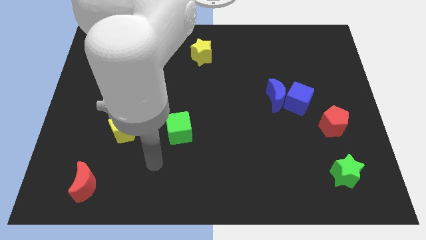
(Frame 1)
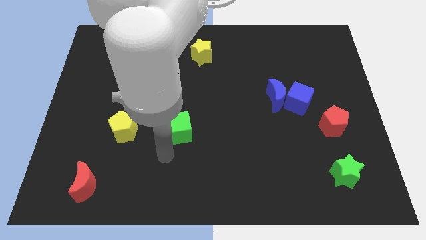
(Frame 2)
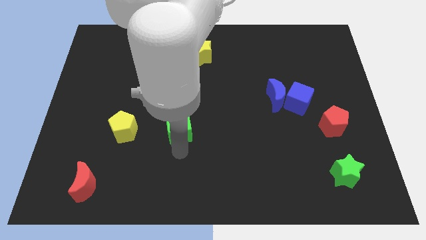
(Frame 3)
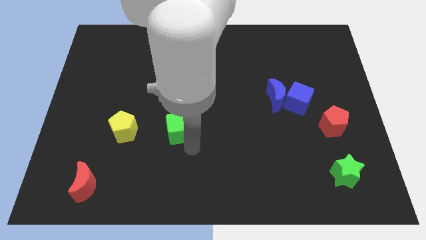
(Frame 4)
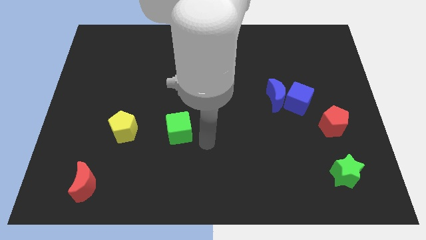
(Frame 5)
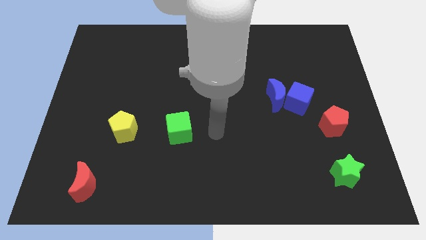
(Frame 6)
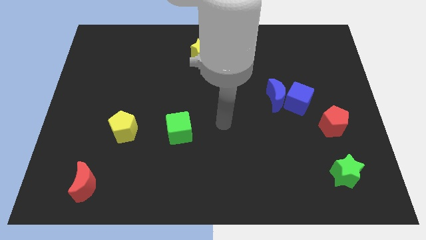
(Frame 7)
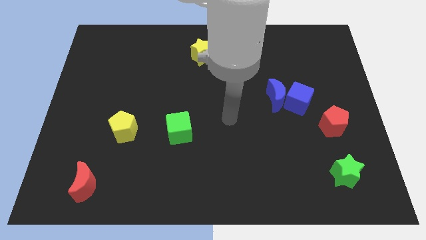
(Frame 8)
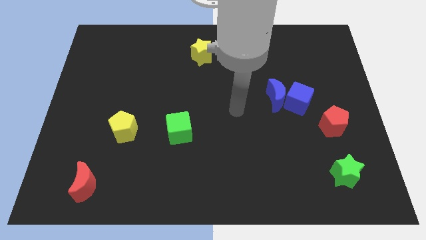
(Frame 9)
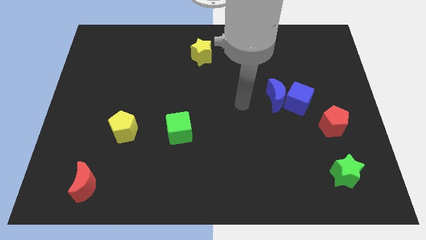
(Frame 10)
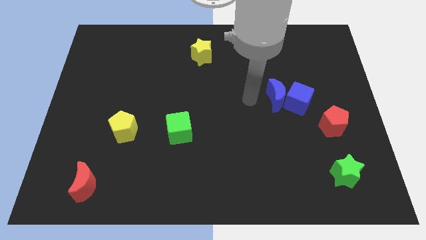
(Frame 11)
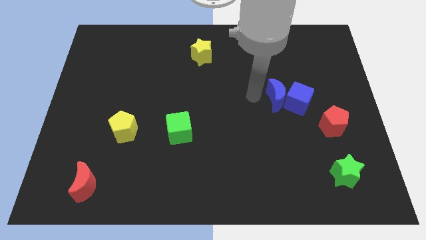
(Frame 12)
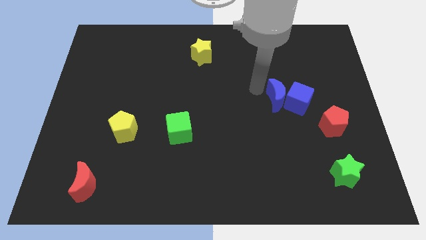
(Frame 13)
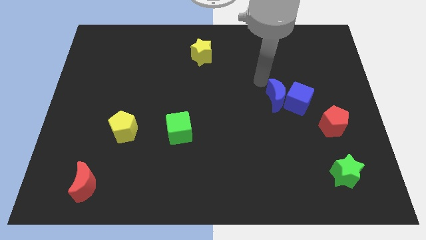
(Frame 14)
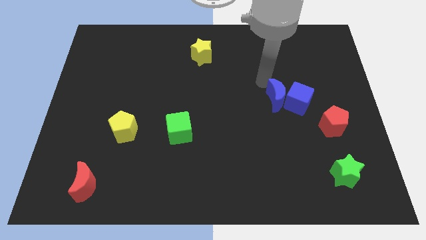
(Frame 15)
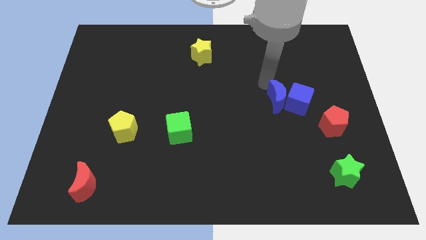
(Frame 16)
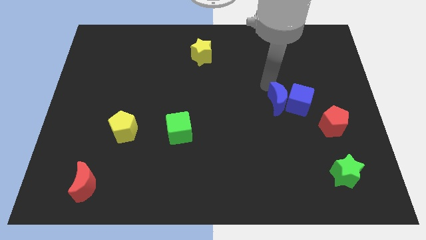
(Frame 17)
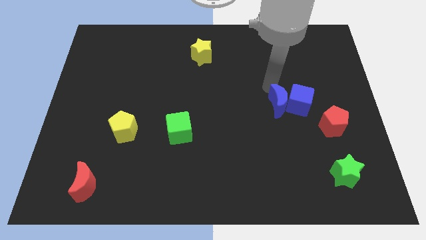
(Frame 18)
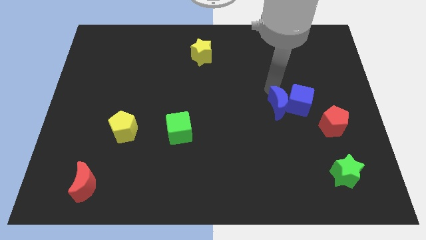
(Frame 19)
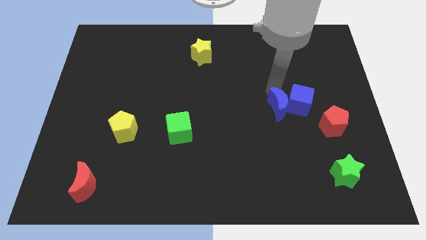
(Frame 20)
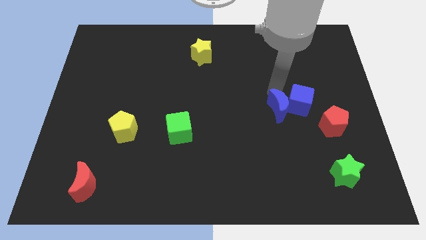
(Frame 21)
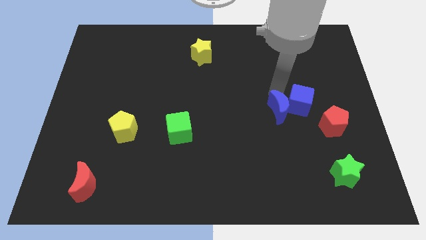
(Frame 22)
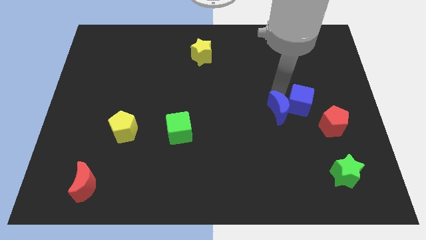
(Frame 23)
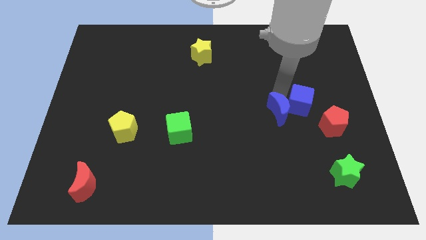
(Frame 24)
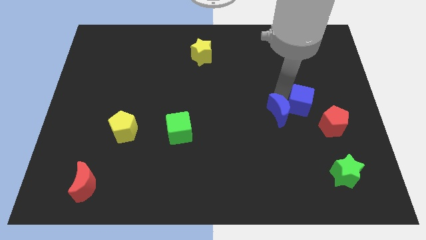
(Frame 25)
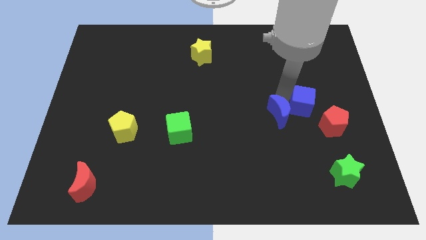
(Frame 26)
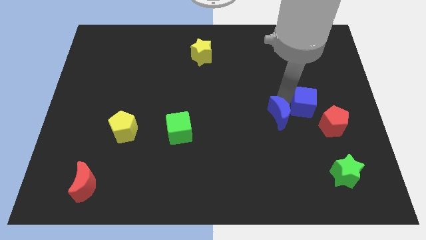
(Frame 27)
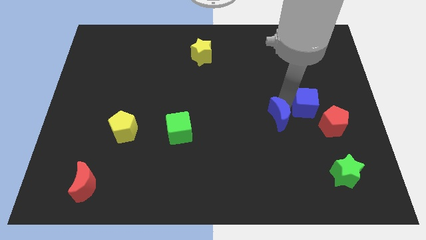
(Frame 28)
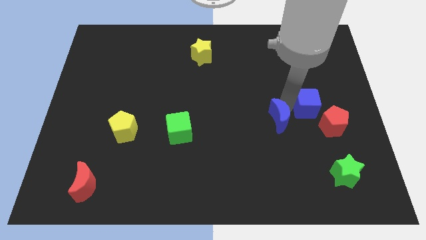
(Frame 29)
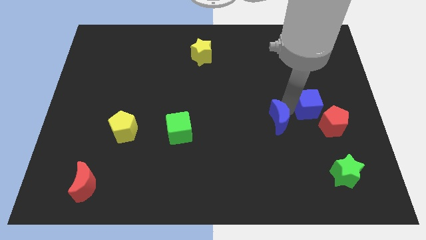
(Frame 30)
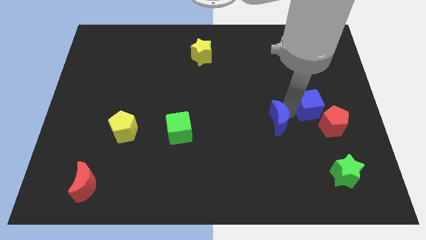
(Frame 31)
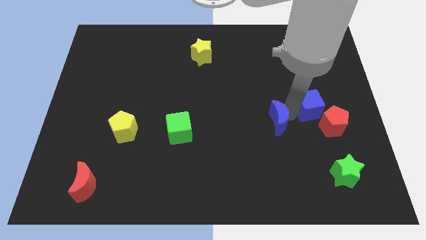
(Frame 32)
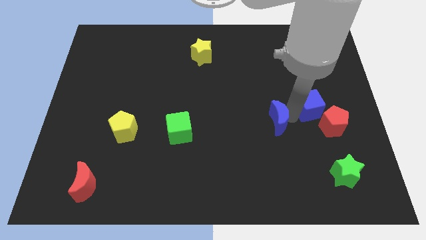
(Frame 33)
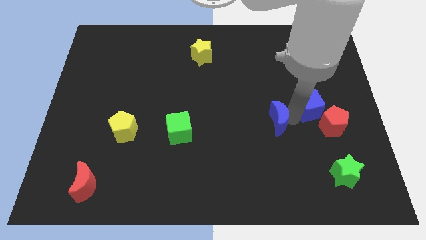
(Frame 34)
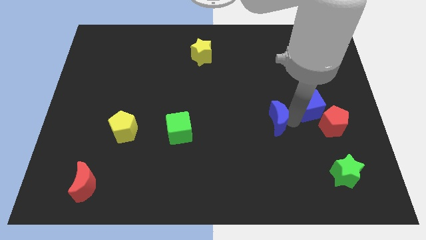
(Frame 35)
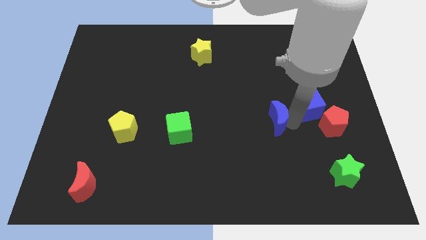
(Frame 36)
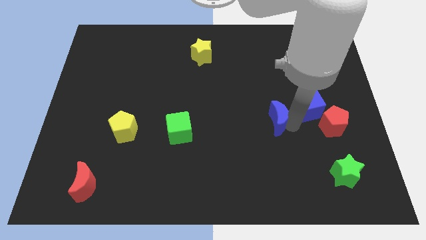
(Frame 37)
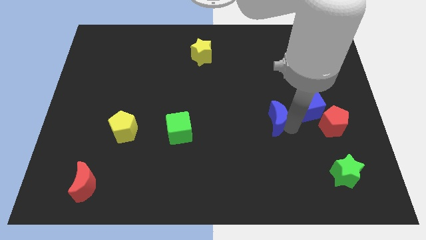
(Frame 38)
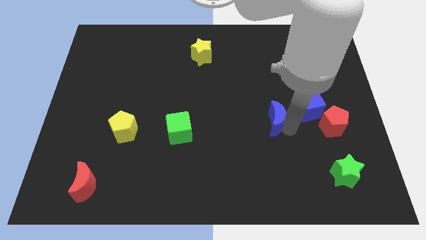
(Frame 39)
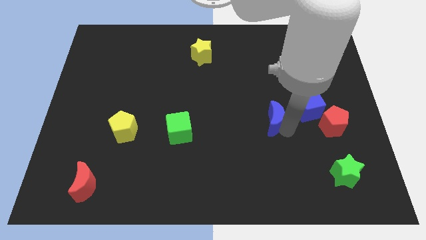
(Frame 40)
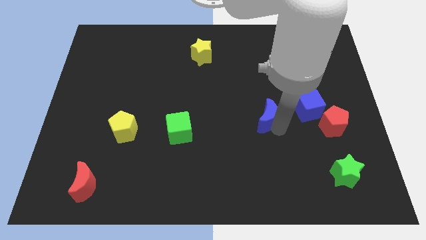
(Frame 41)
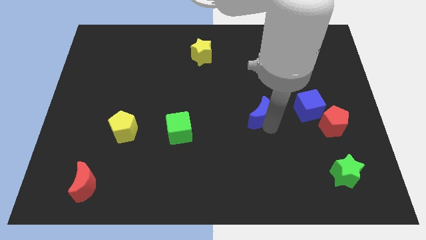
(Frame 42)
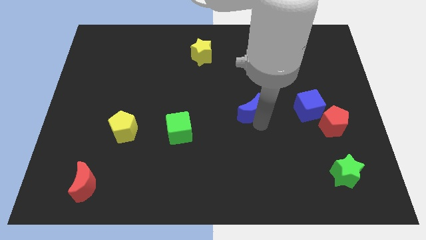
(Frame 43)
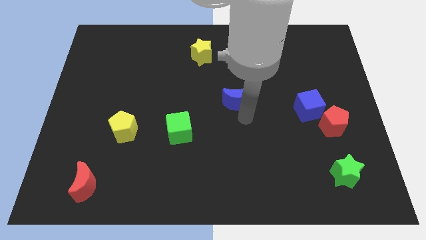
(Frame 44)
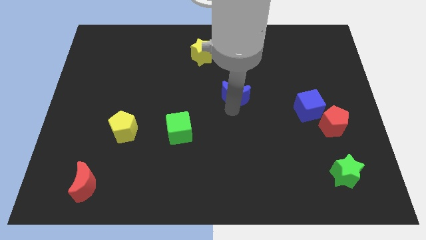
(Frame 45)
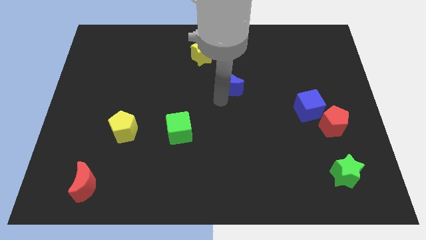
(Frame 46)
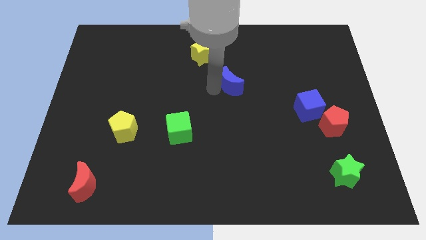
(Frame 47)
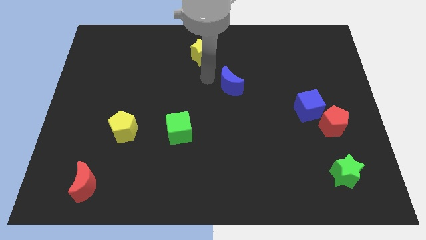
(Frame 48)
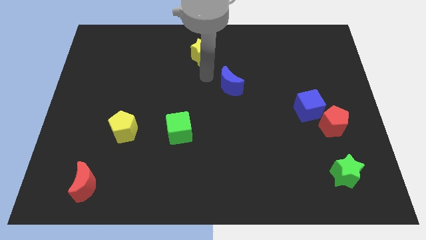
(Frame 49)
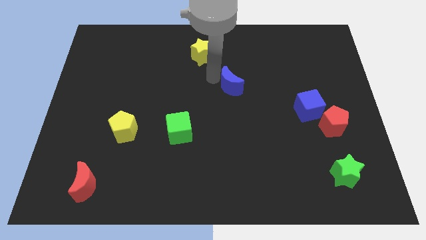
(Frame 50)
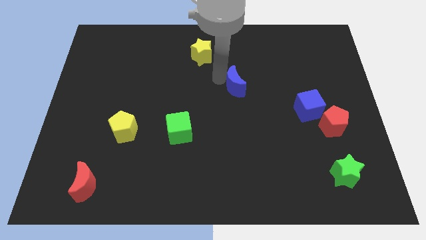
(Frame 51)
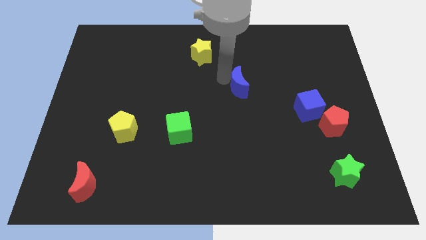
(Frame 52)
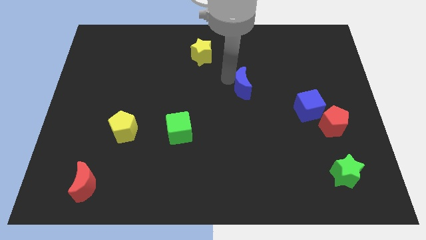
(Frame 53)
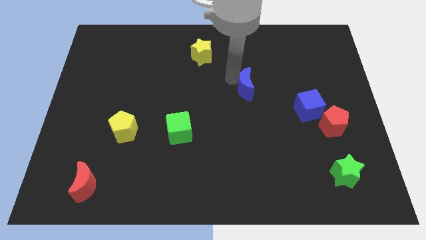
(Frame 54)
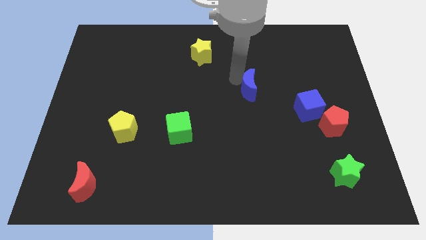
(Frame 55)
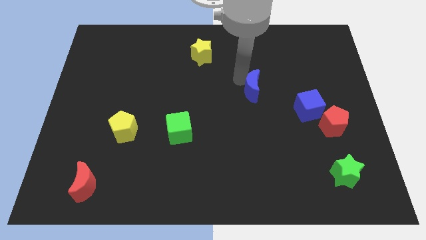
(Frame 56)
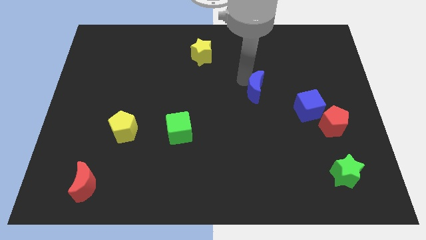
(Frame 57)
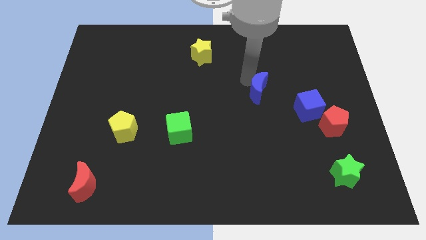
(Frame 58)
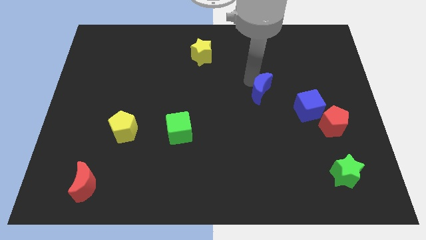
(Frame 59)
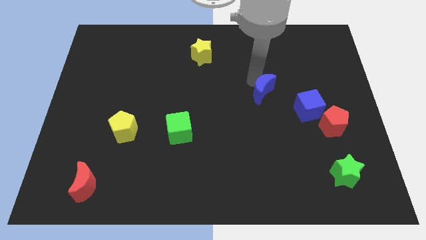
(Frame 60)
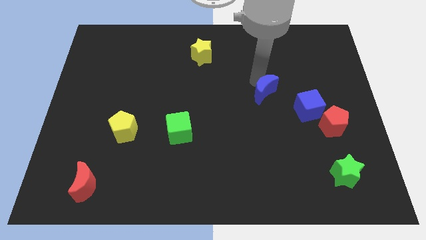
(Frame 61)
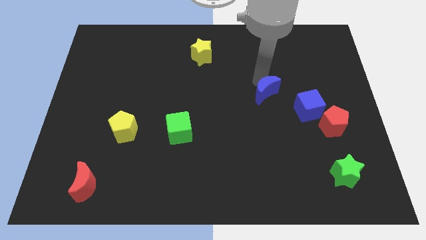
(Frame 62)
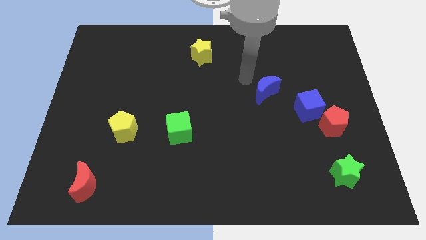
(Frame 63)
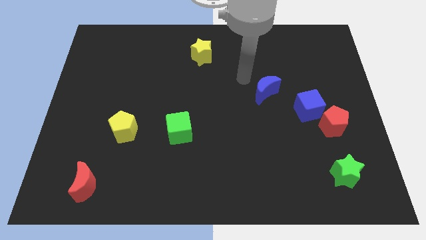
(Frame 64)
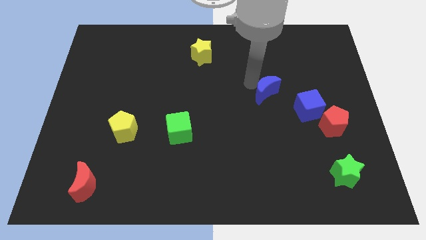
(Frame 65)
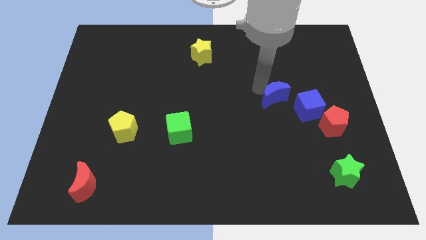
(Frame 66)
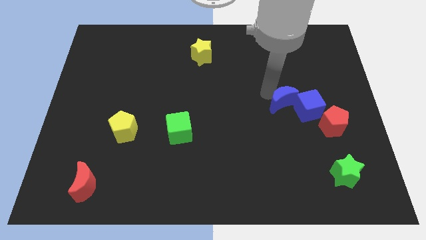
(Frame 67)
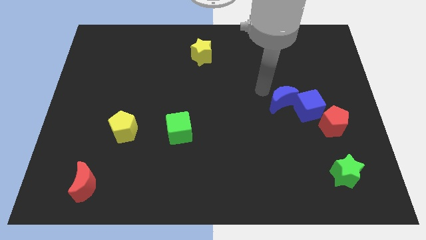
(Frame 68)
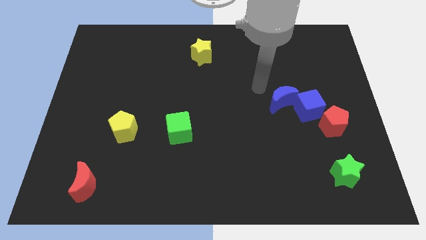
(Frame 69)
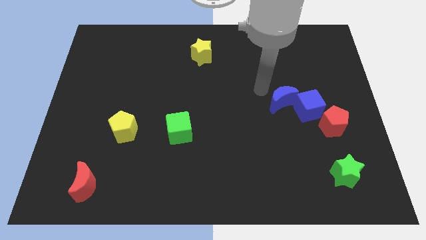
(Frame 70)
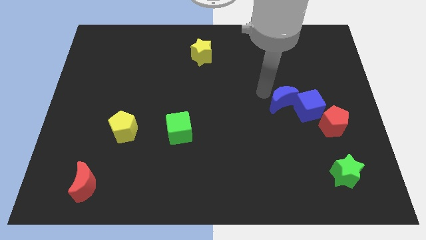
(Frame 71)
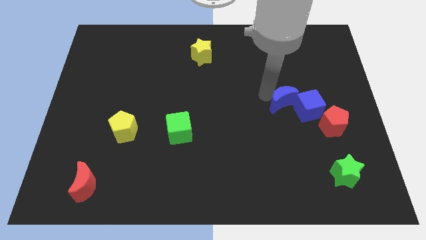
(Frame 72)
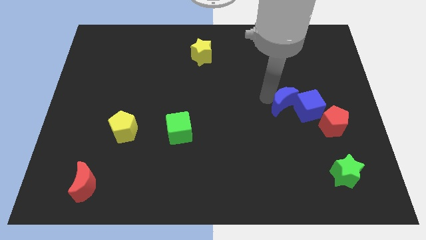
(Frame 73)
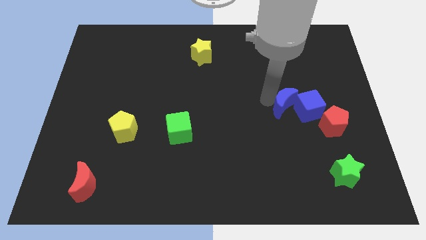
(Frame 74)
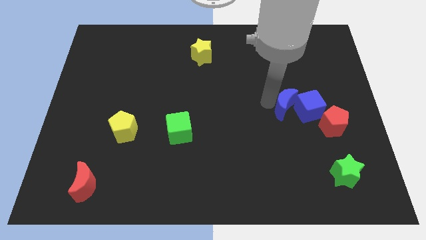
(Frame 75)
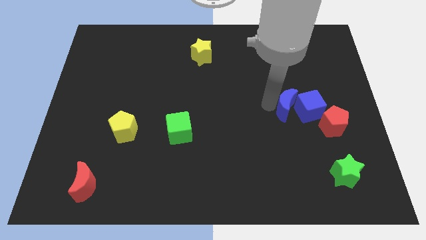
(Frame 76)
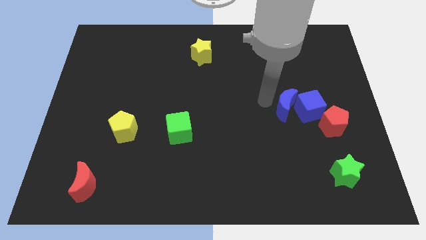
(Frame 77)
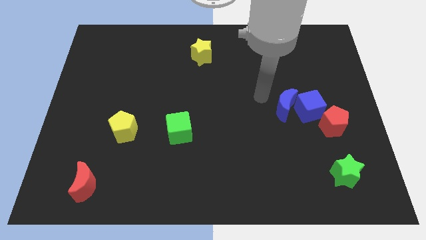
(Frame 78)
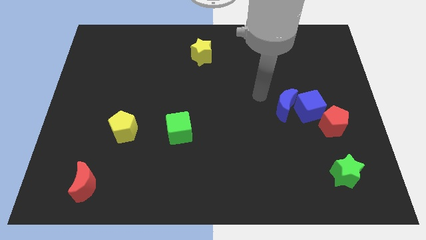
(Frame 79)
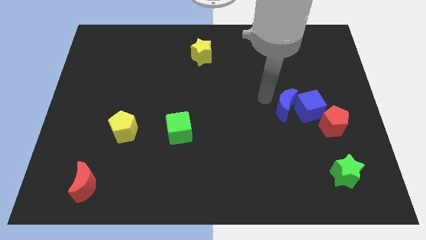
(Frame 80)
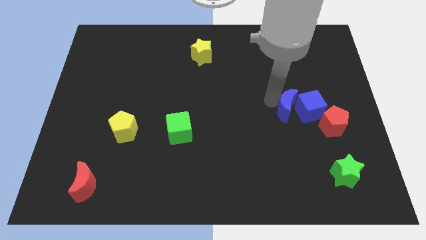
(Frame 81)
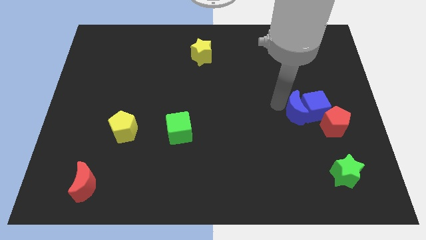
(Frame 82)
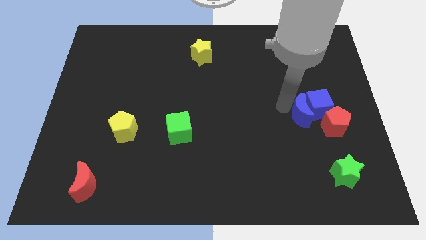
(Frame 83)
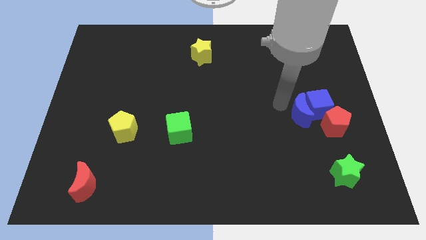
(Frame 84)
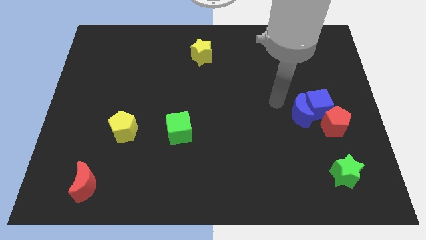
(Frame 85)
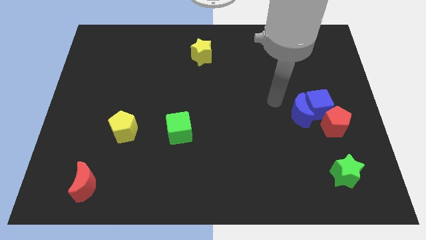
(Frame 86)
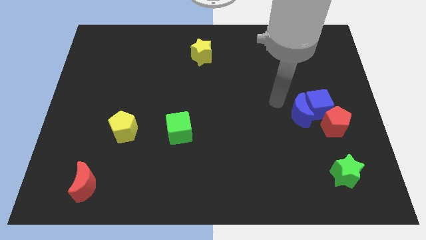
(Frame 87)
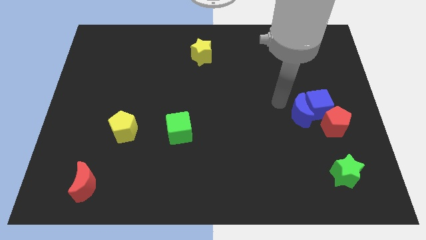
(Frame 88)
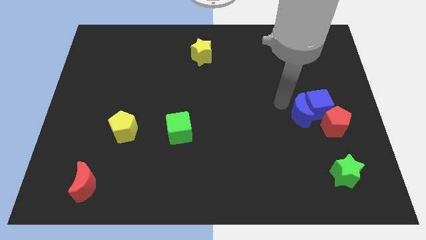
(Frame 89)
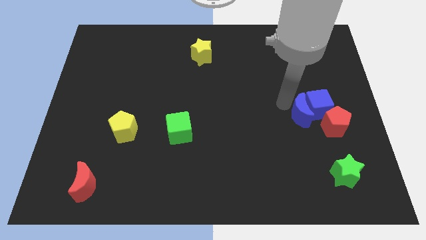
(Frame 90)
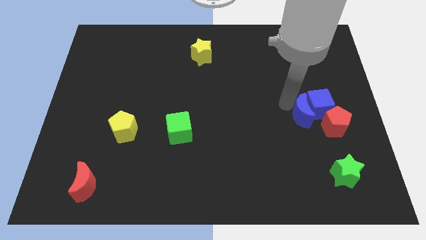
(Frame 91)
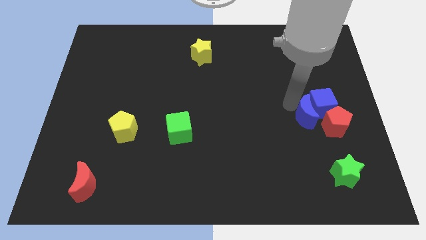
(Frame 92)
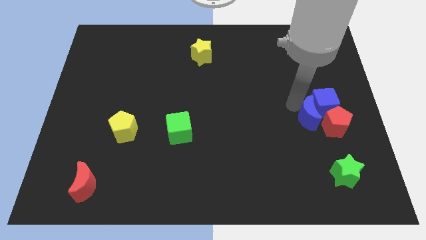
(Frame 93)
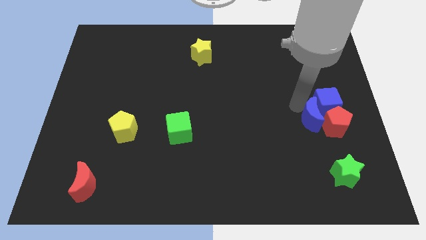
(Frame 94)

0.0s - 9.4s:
push the blue moon towards the red pentagon
